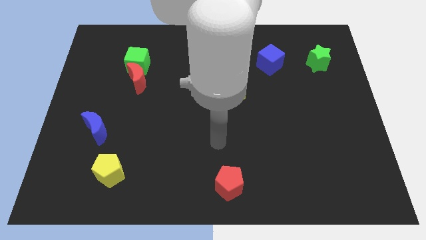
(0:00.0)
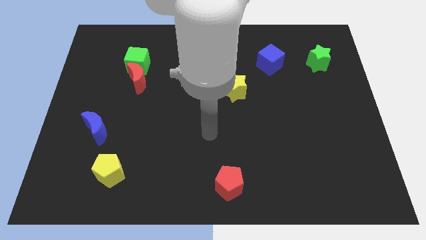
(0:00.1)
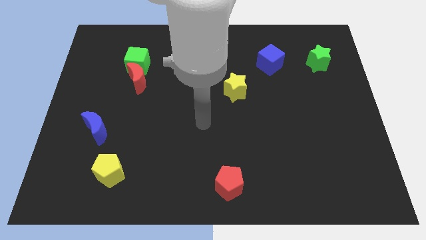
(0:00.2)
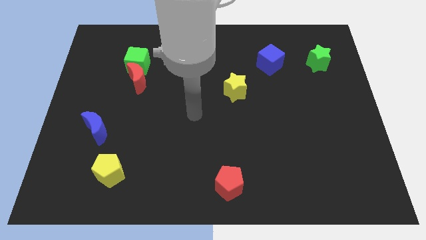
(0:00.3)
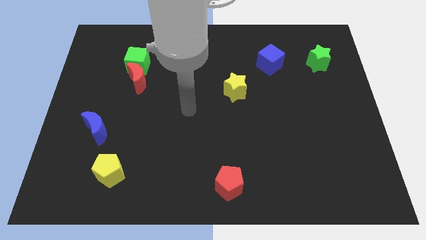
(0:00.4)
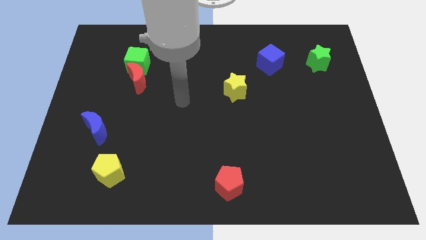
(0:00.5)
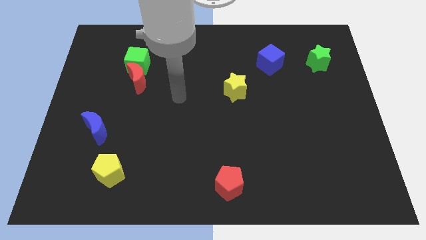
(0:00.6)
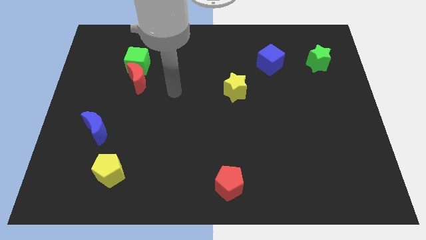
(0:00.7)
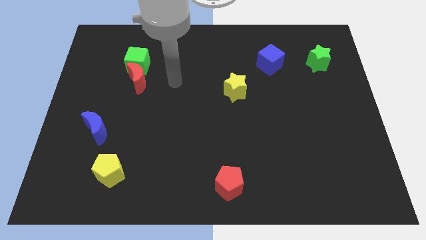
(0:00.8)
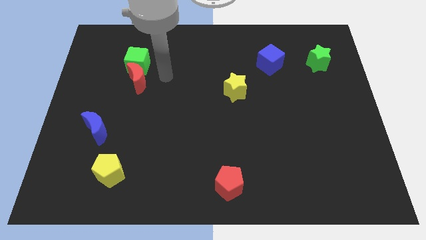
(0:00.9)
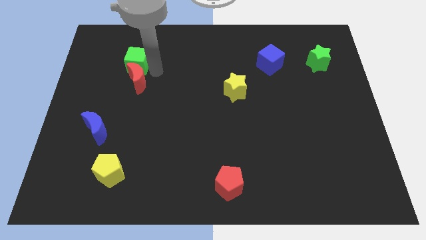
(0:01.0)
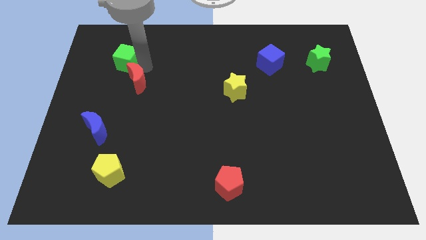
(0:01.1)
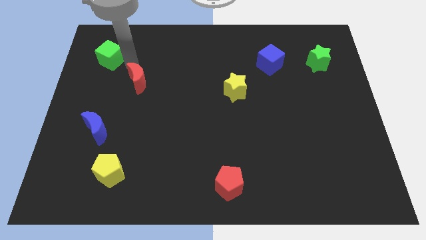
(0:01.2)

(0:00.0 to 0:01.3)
move the red moon away from the green cube

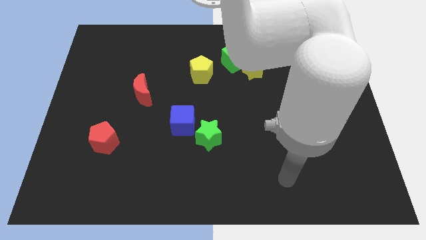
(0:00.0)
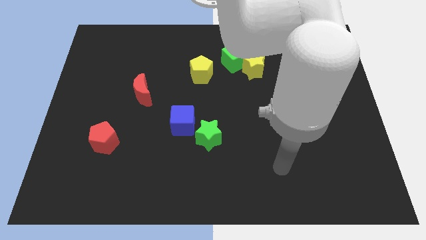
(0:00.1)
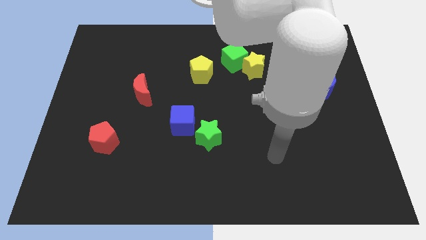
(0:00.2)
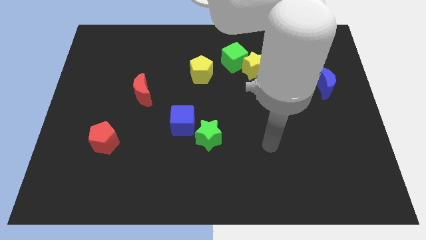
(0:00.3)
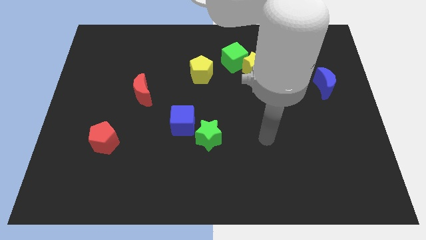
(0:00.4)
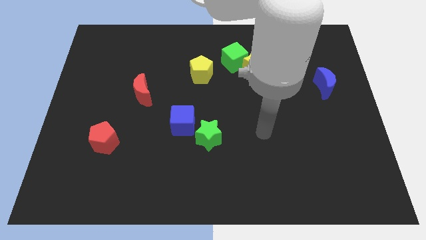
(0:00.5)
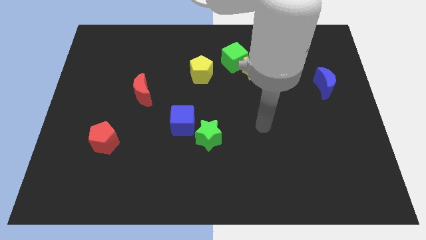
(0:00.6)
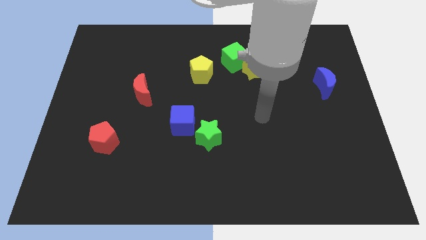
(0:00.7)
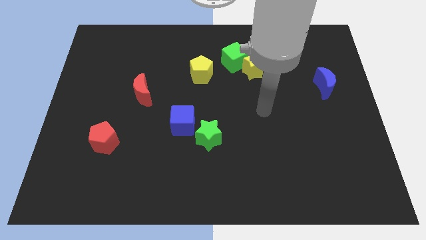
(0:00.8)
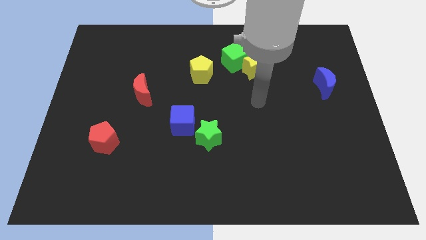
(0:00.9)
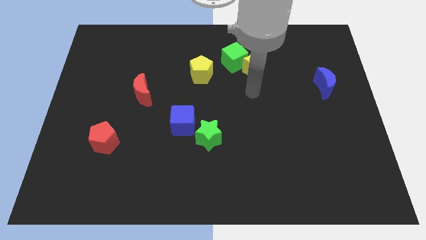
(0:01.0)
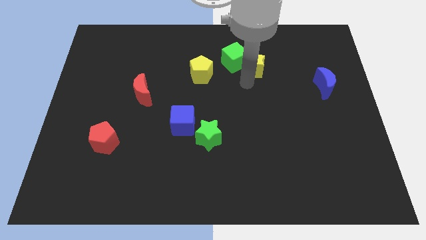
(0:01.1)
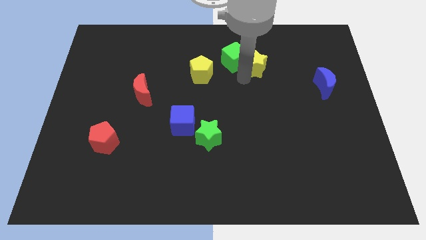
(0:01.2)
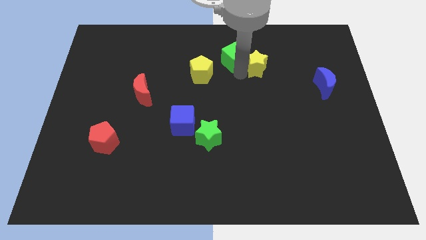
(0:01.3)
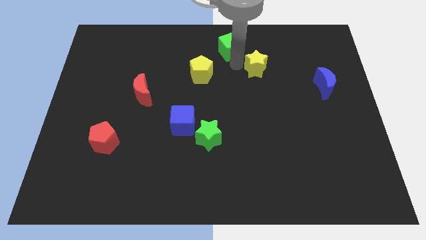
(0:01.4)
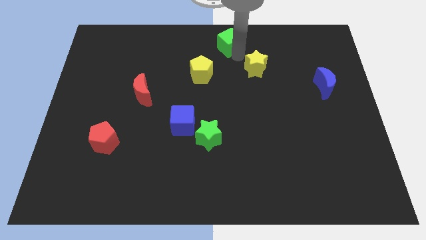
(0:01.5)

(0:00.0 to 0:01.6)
pull the yellow star apart from the green cube

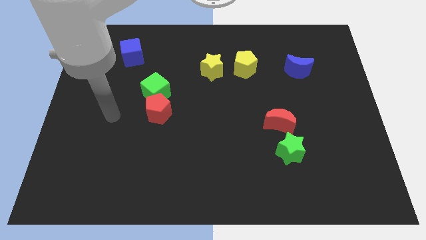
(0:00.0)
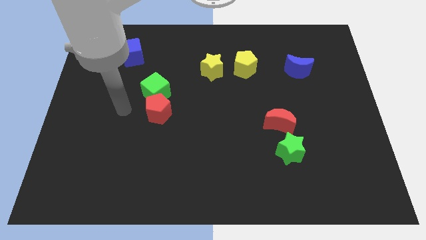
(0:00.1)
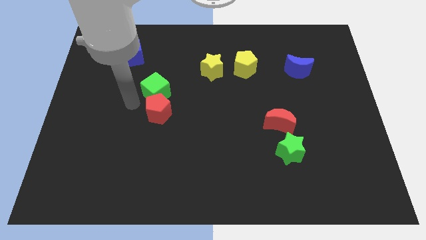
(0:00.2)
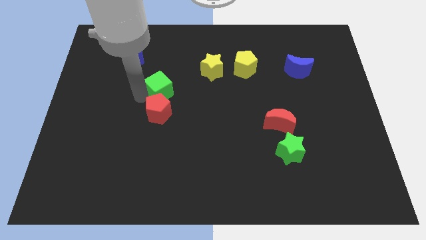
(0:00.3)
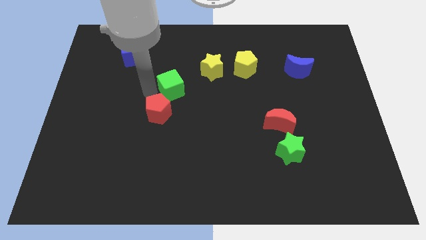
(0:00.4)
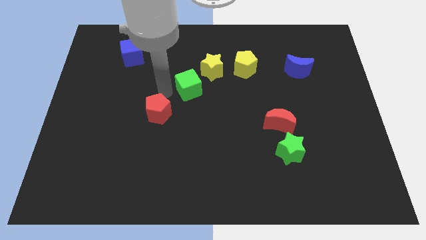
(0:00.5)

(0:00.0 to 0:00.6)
move the red pentagon away from the green cube

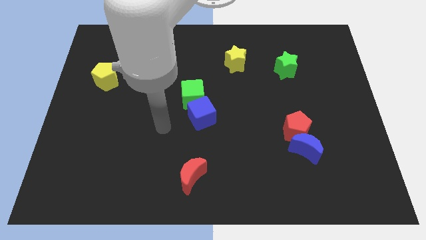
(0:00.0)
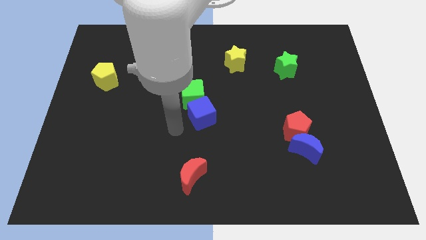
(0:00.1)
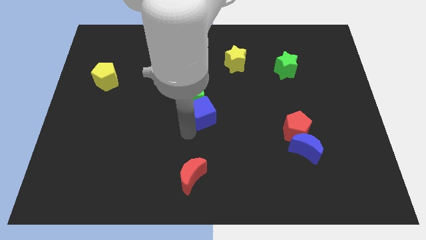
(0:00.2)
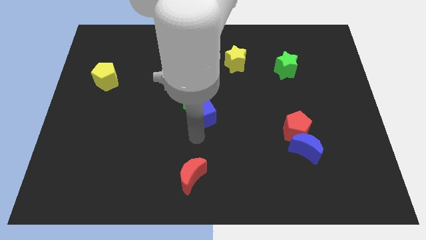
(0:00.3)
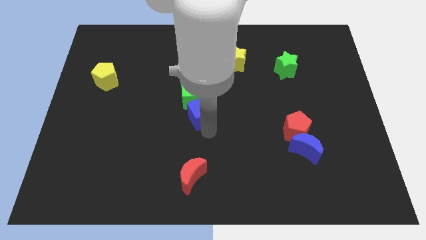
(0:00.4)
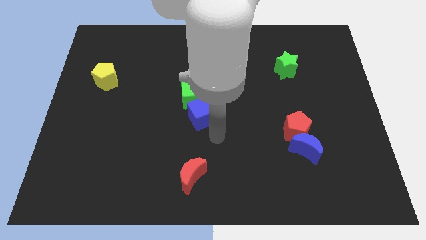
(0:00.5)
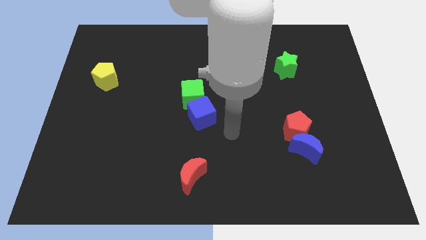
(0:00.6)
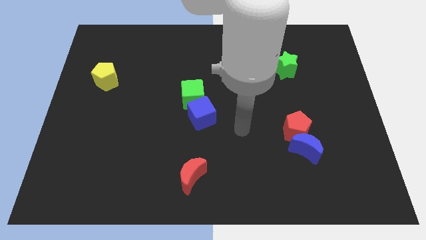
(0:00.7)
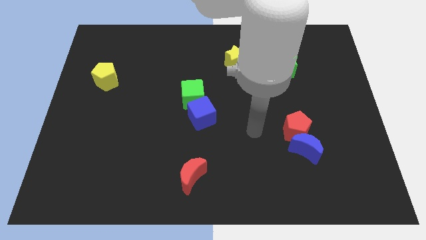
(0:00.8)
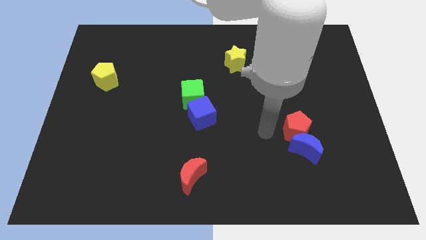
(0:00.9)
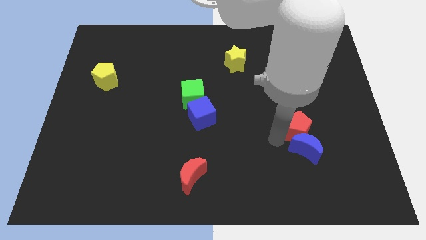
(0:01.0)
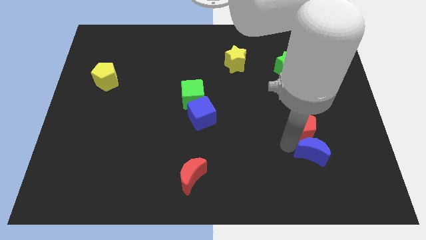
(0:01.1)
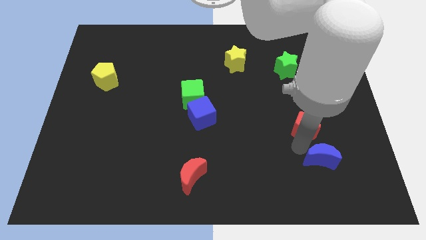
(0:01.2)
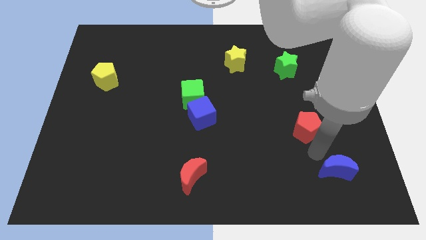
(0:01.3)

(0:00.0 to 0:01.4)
separate the red pentagon from the blue moon

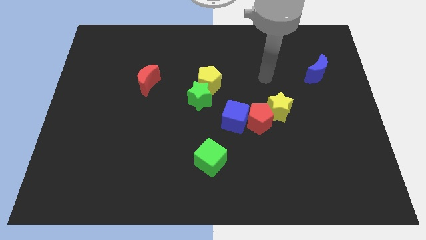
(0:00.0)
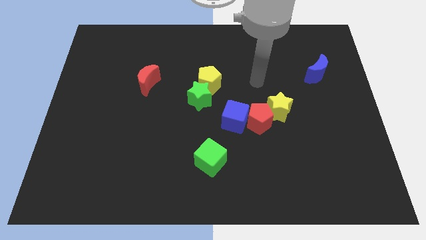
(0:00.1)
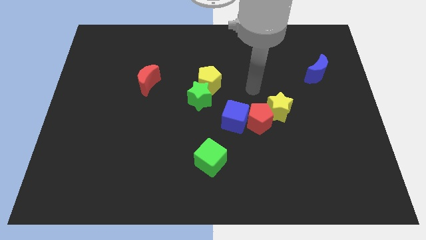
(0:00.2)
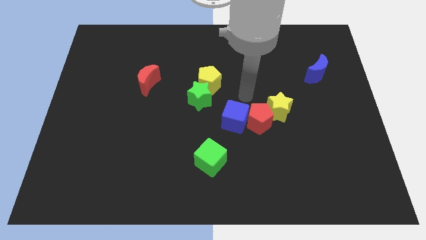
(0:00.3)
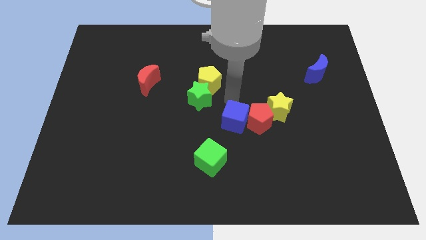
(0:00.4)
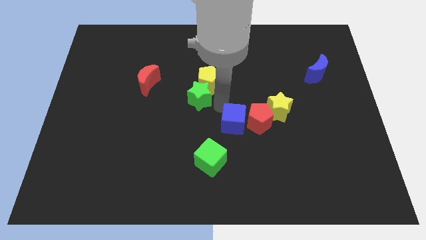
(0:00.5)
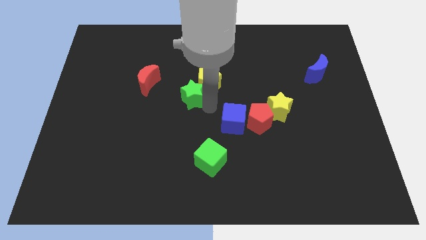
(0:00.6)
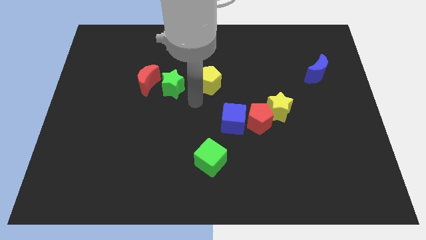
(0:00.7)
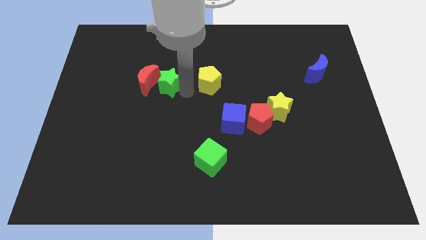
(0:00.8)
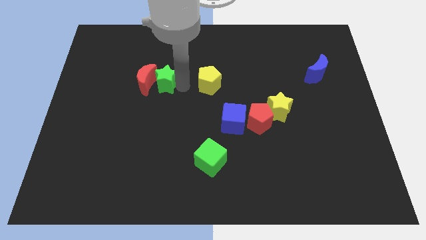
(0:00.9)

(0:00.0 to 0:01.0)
move the yellow pentagon away from the green star

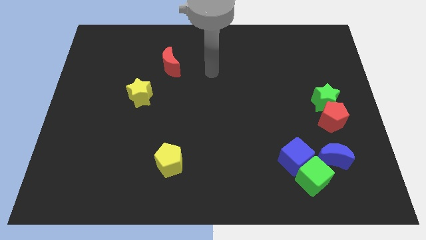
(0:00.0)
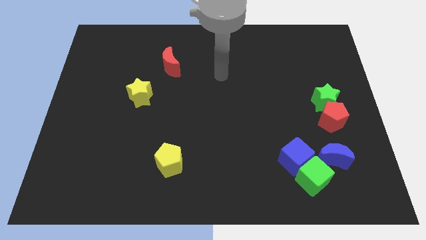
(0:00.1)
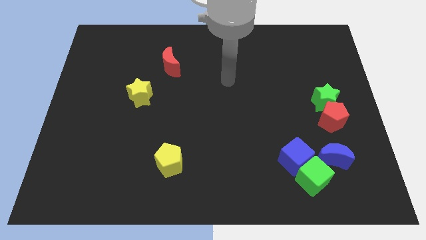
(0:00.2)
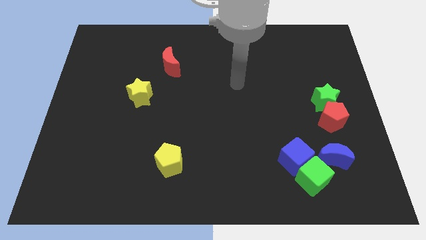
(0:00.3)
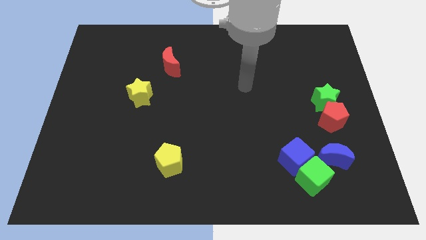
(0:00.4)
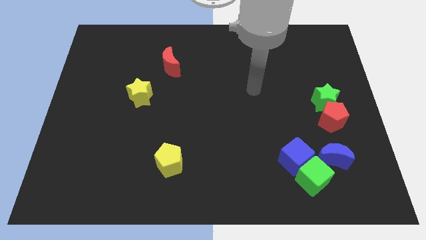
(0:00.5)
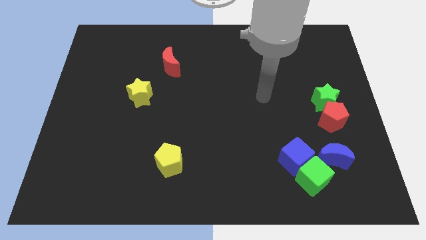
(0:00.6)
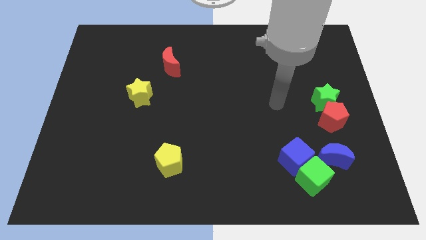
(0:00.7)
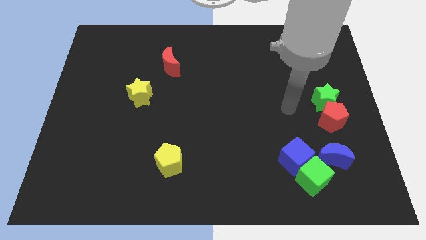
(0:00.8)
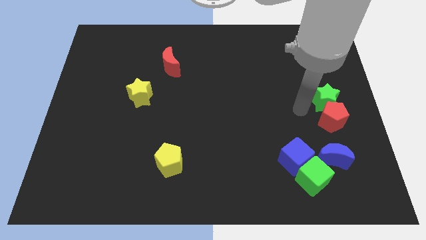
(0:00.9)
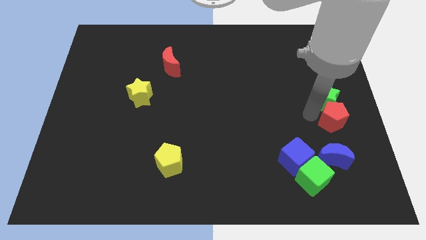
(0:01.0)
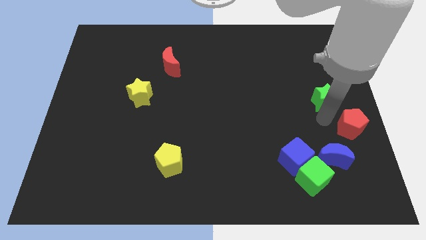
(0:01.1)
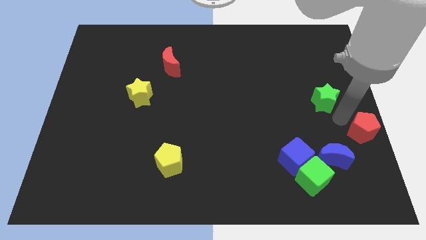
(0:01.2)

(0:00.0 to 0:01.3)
pull the green star apart from the red pentagon

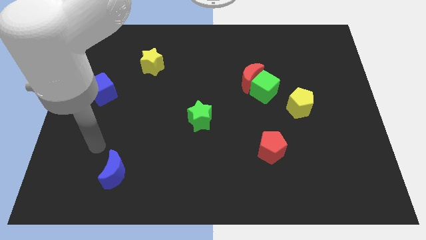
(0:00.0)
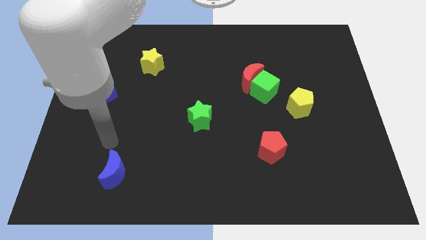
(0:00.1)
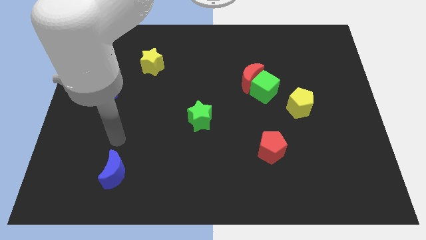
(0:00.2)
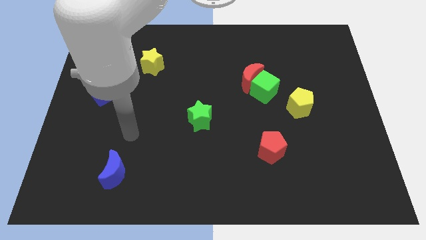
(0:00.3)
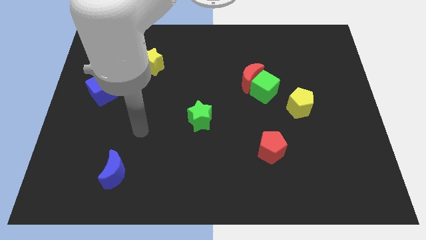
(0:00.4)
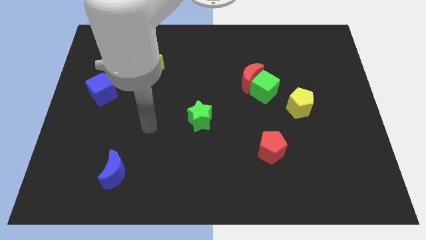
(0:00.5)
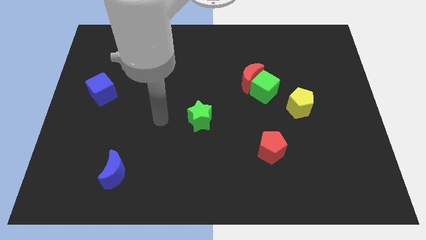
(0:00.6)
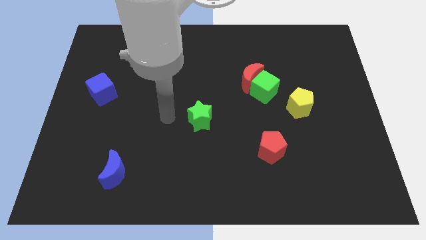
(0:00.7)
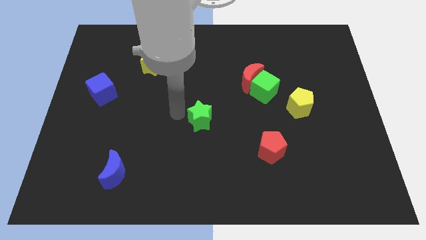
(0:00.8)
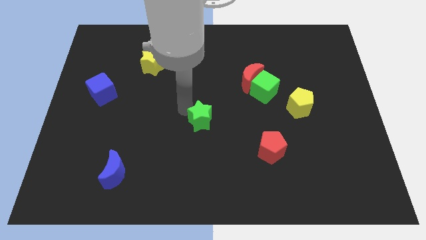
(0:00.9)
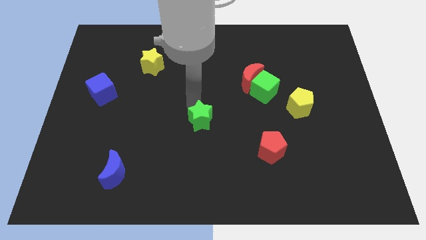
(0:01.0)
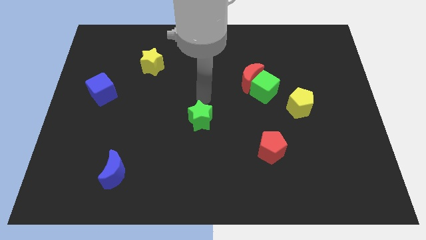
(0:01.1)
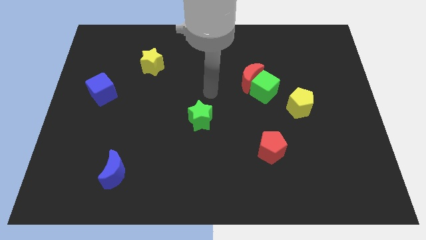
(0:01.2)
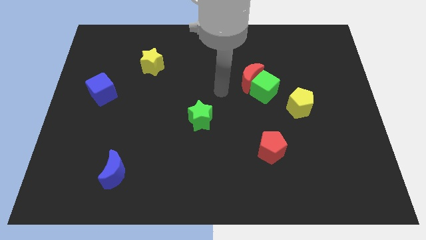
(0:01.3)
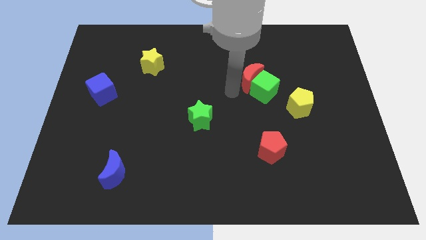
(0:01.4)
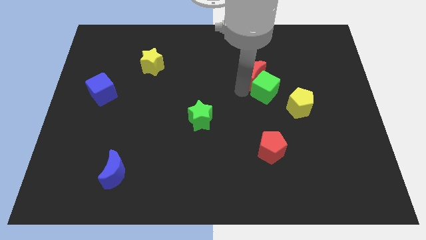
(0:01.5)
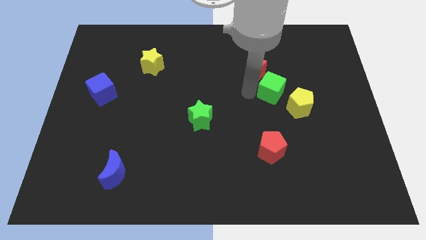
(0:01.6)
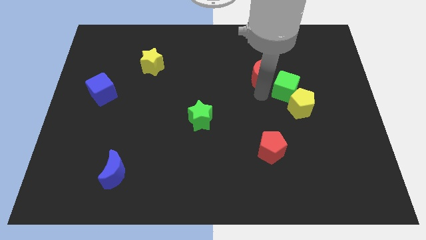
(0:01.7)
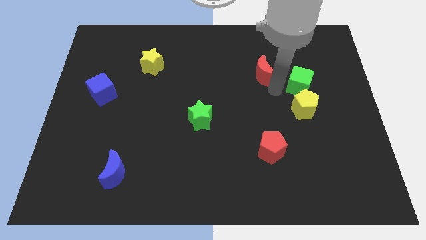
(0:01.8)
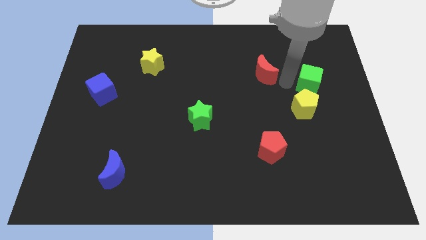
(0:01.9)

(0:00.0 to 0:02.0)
separate the red moon from the green cube
